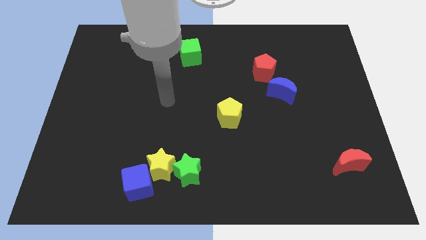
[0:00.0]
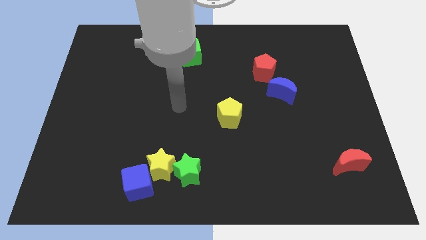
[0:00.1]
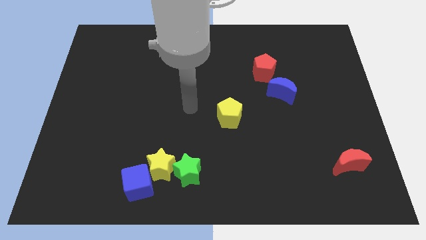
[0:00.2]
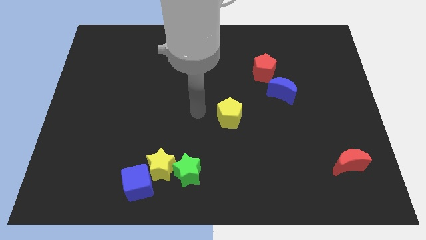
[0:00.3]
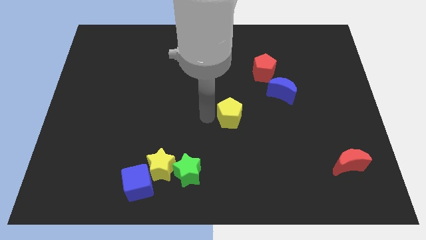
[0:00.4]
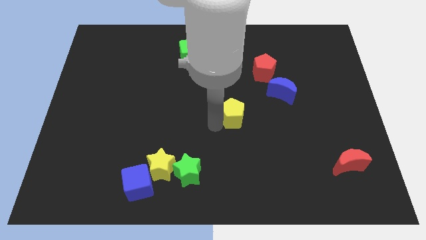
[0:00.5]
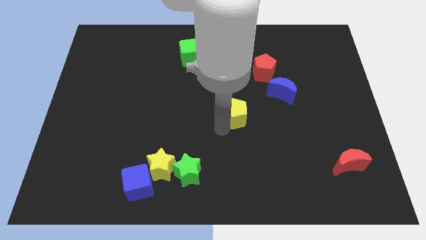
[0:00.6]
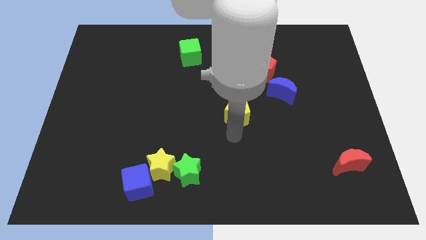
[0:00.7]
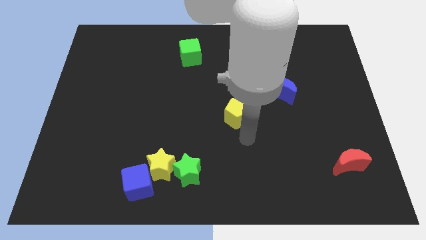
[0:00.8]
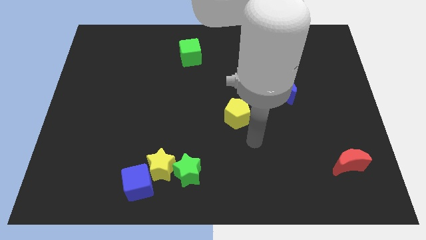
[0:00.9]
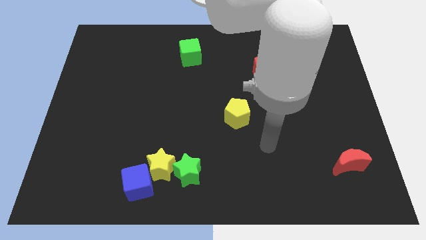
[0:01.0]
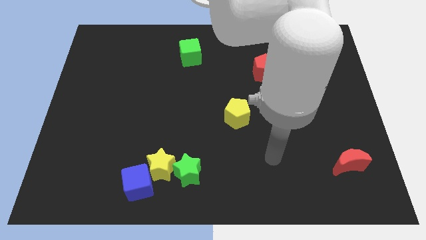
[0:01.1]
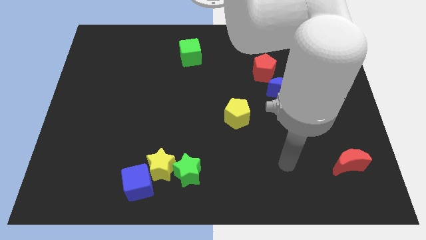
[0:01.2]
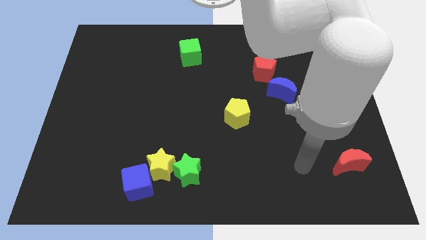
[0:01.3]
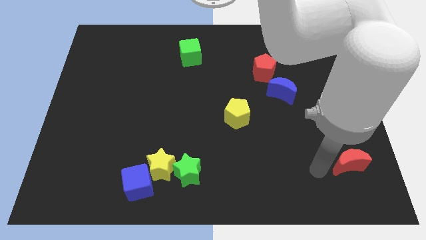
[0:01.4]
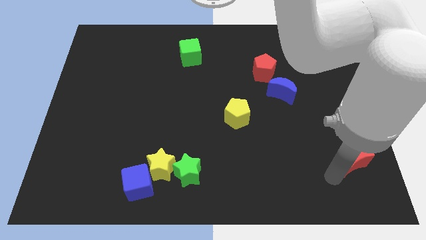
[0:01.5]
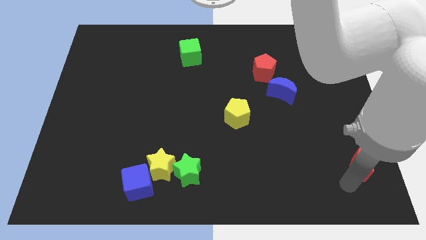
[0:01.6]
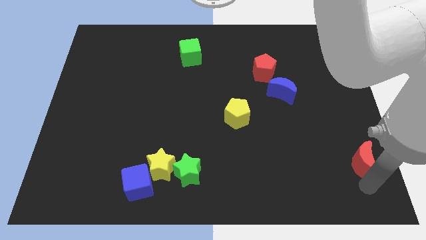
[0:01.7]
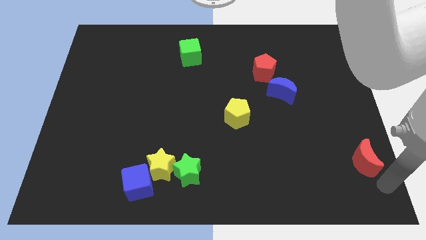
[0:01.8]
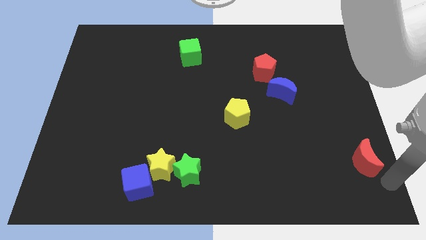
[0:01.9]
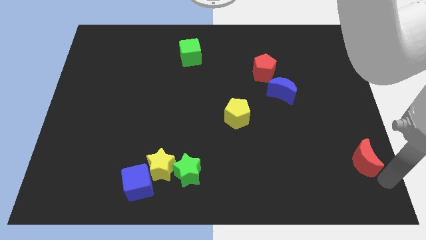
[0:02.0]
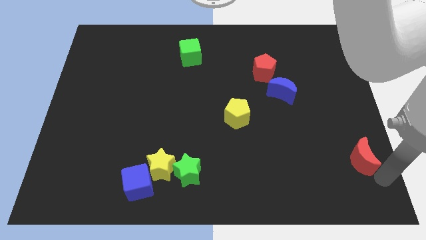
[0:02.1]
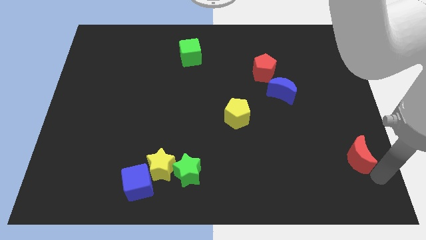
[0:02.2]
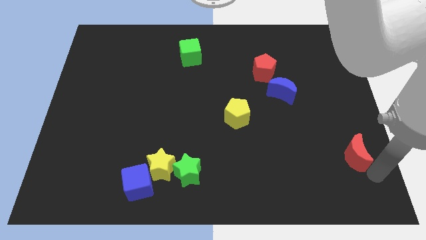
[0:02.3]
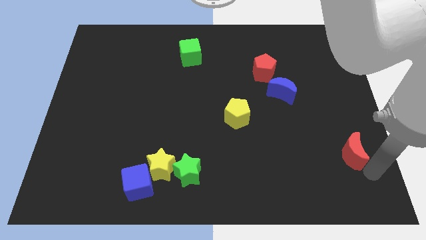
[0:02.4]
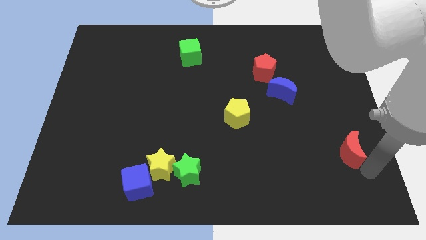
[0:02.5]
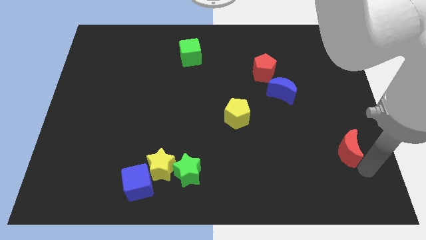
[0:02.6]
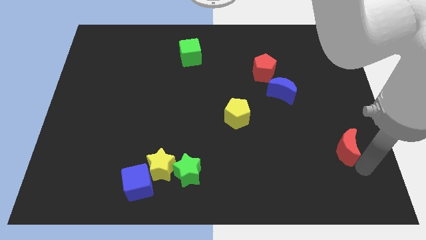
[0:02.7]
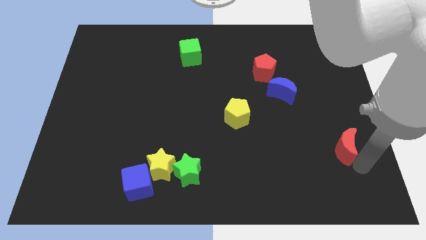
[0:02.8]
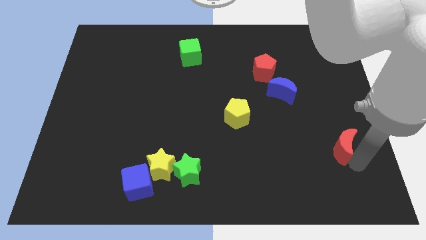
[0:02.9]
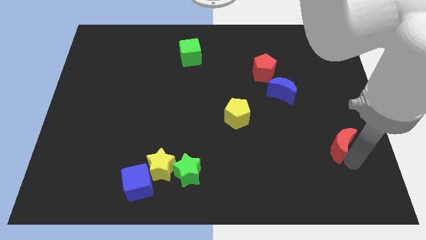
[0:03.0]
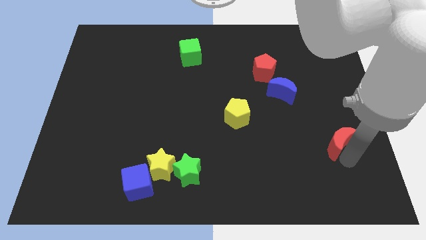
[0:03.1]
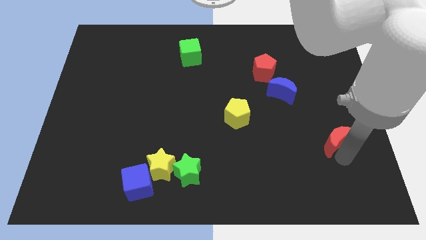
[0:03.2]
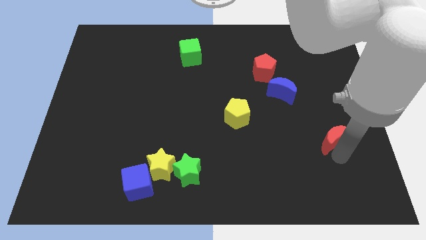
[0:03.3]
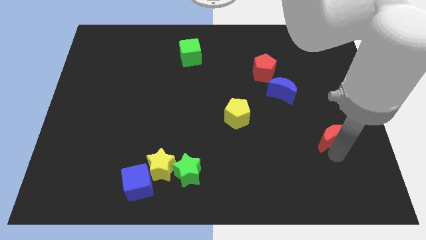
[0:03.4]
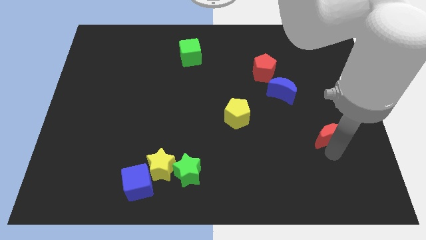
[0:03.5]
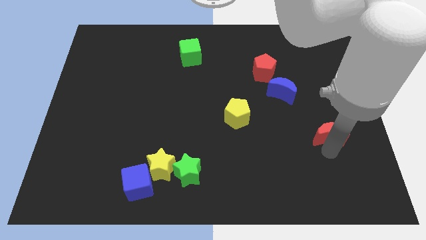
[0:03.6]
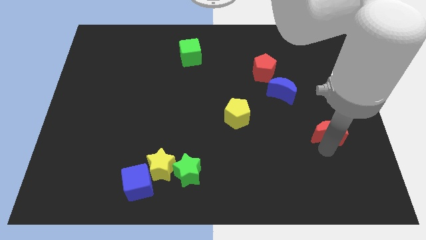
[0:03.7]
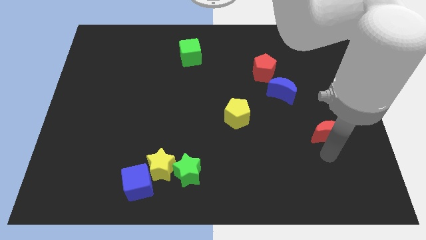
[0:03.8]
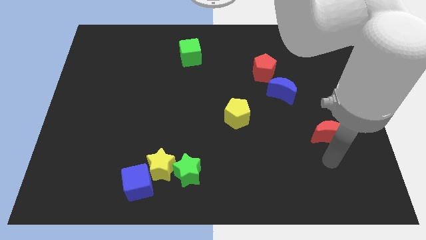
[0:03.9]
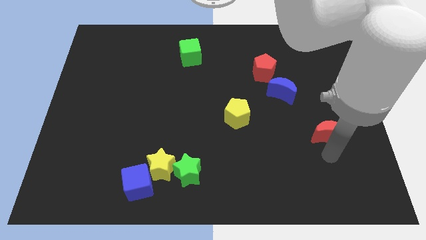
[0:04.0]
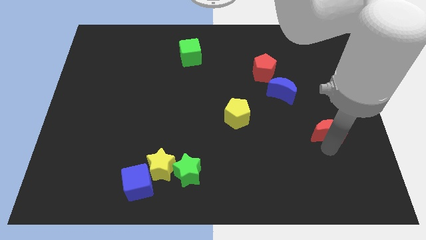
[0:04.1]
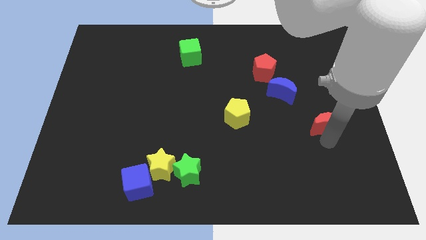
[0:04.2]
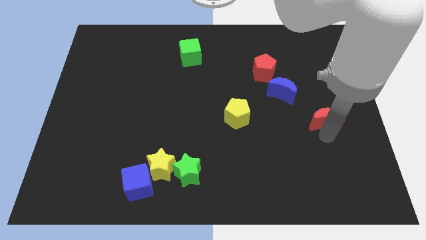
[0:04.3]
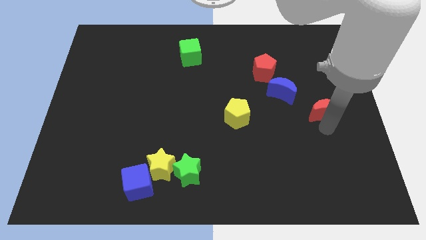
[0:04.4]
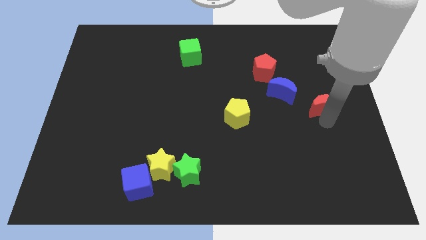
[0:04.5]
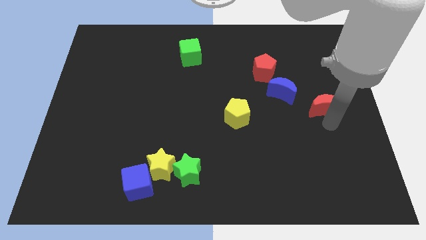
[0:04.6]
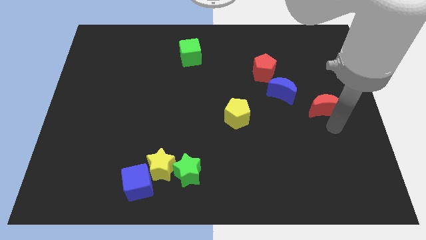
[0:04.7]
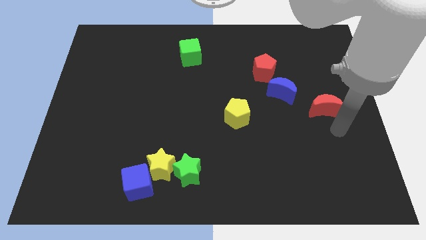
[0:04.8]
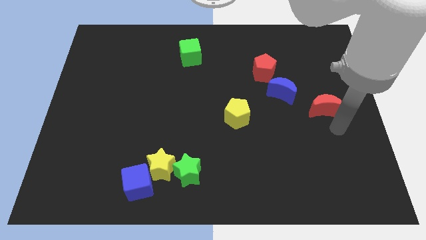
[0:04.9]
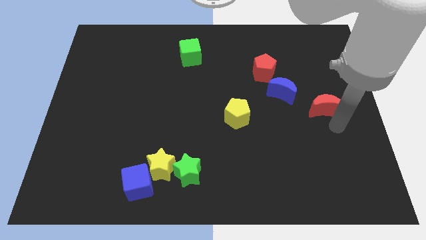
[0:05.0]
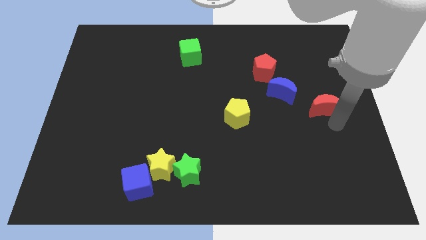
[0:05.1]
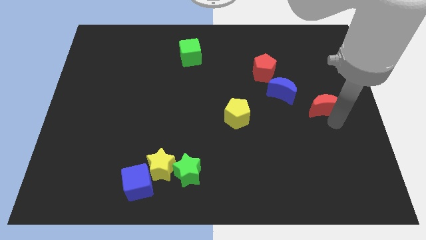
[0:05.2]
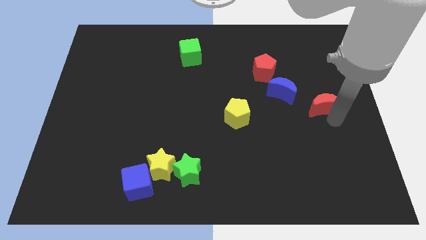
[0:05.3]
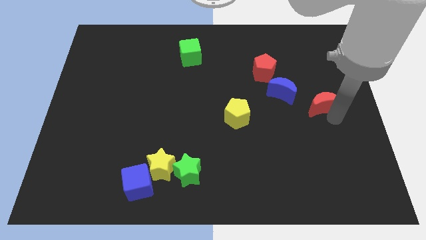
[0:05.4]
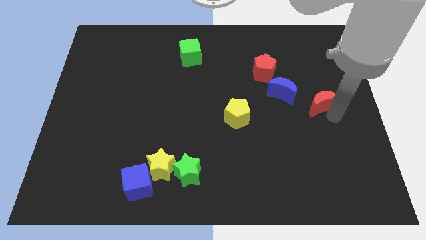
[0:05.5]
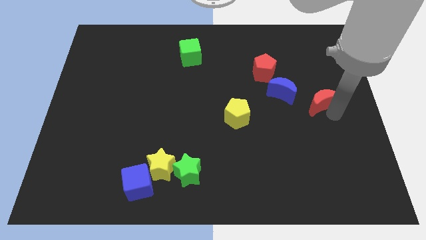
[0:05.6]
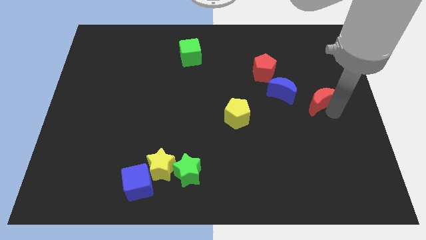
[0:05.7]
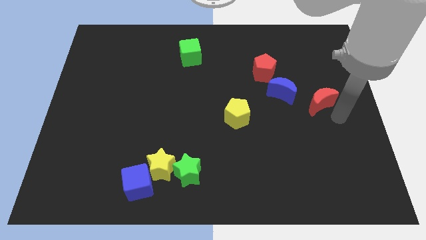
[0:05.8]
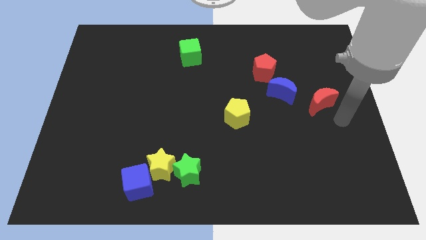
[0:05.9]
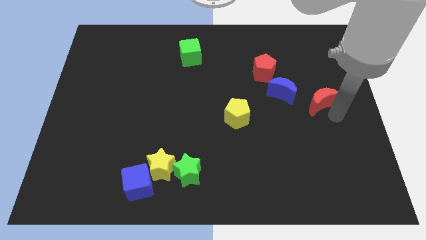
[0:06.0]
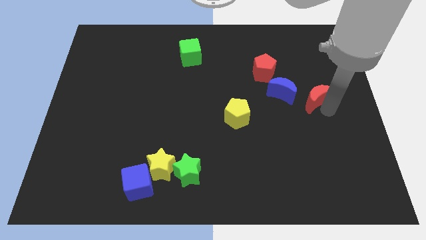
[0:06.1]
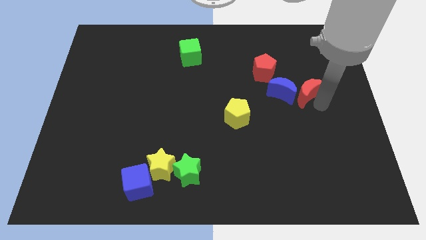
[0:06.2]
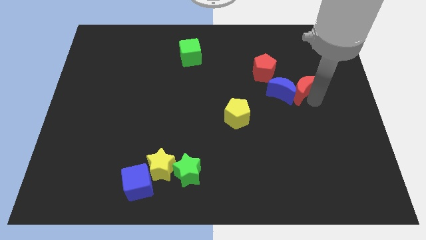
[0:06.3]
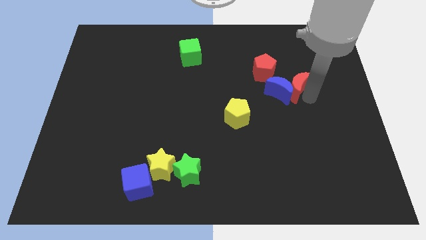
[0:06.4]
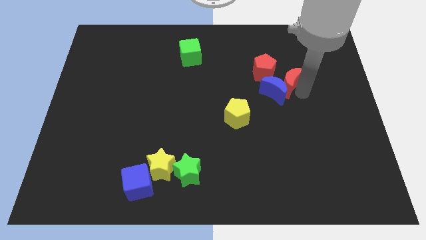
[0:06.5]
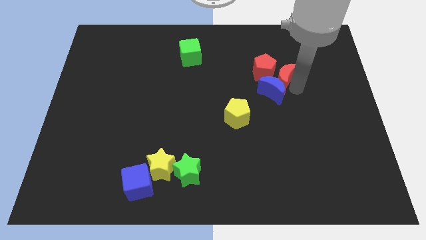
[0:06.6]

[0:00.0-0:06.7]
push the red moon next to the red pentagon

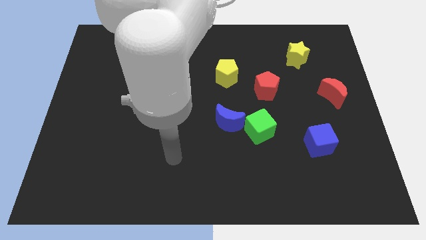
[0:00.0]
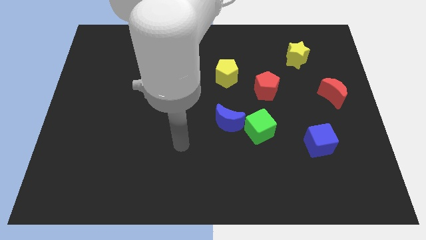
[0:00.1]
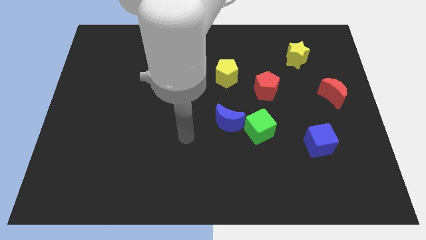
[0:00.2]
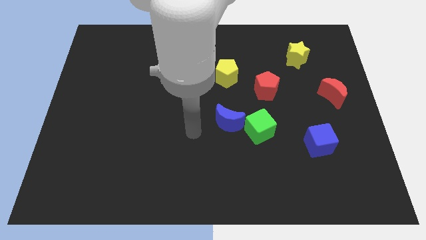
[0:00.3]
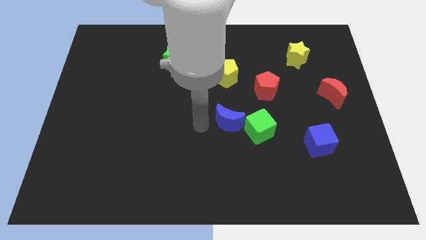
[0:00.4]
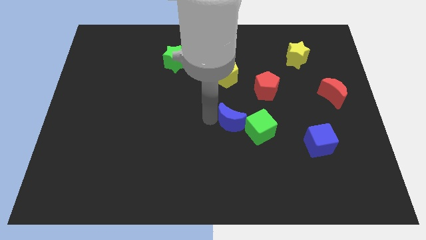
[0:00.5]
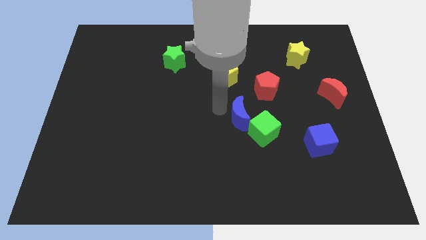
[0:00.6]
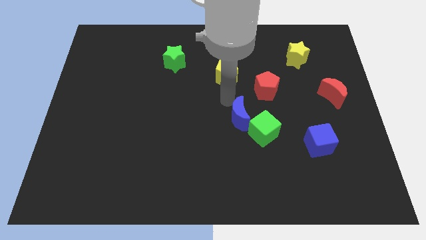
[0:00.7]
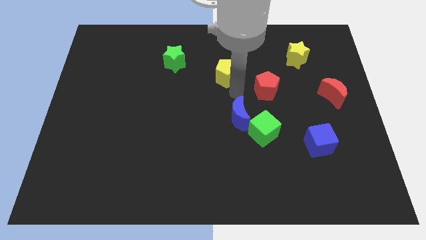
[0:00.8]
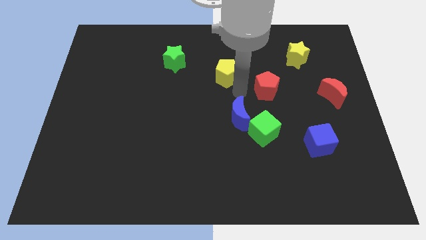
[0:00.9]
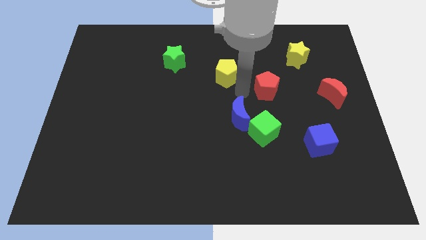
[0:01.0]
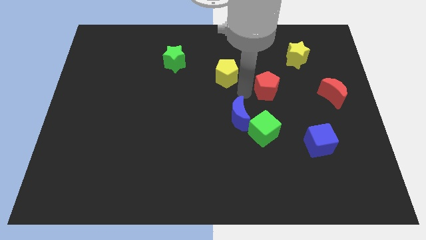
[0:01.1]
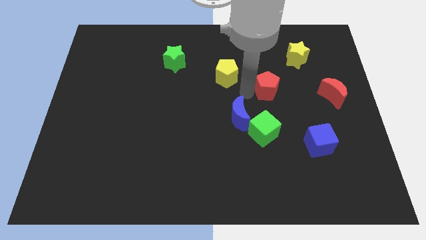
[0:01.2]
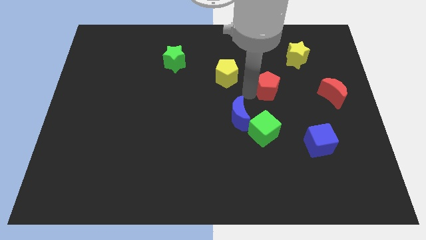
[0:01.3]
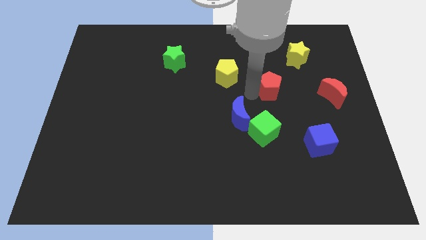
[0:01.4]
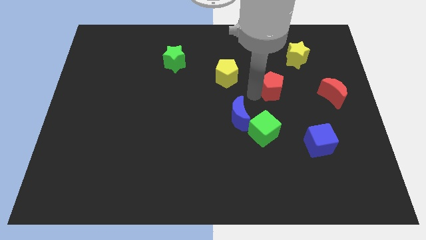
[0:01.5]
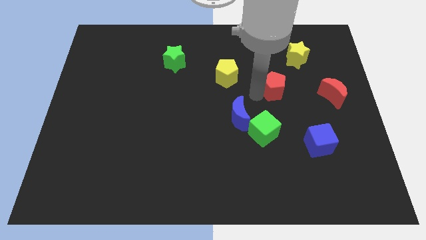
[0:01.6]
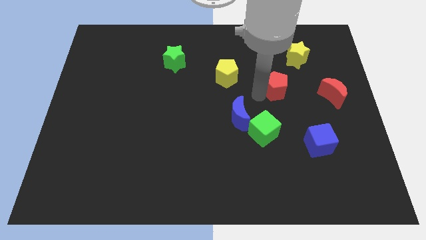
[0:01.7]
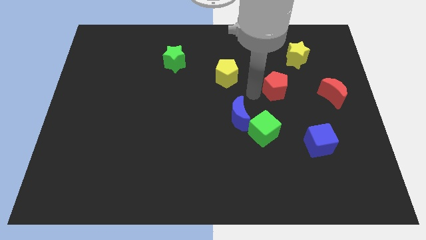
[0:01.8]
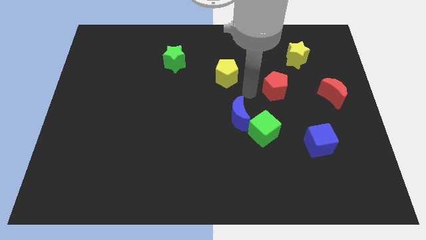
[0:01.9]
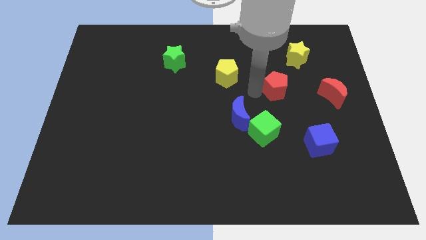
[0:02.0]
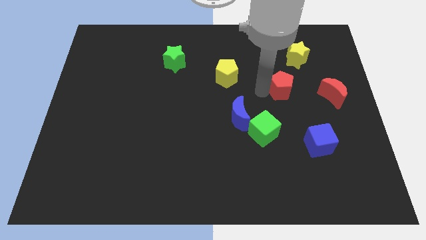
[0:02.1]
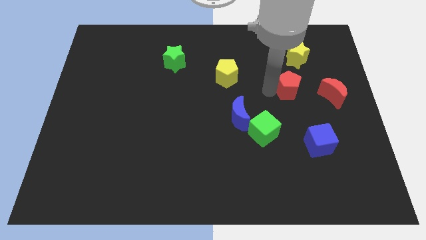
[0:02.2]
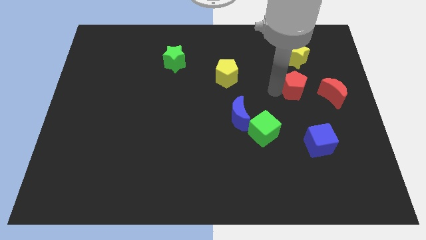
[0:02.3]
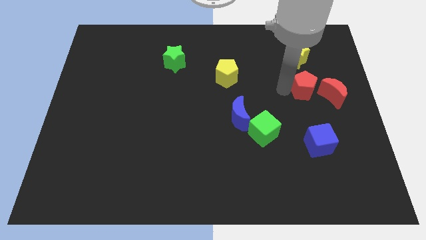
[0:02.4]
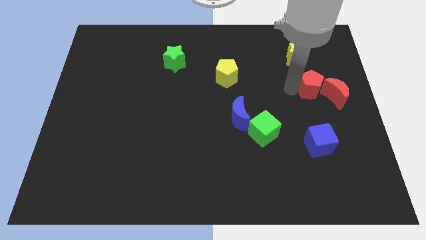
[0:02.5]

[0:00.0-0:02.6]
move the red pentagon close to the red moon
